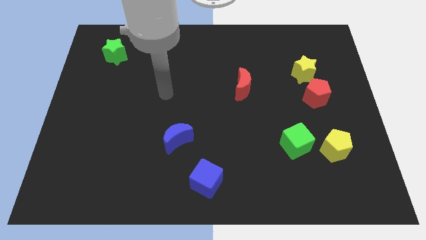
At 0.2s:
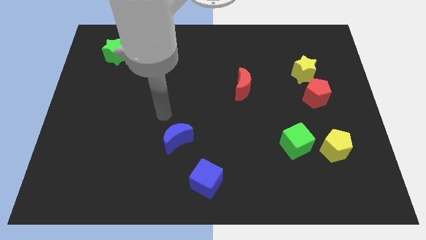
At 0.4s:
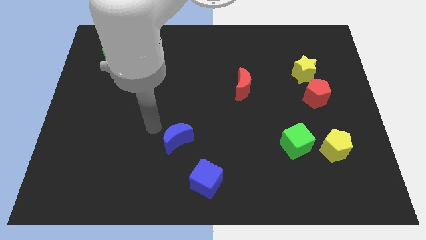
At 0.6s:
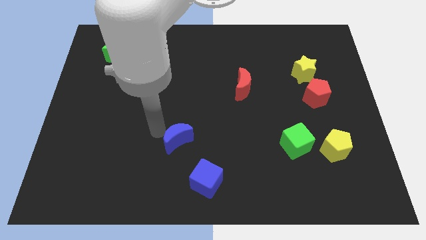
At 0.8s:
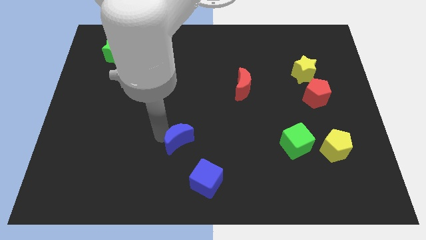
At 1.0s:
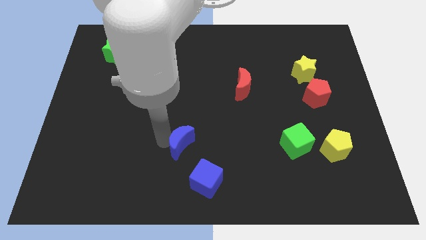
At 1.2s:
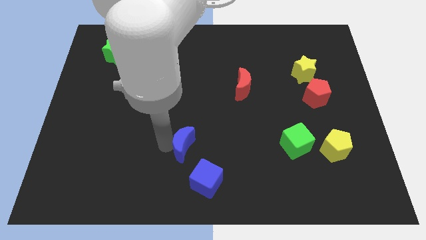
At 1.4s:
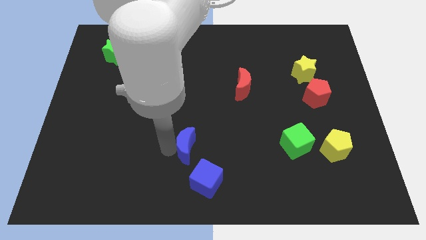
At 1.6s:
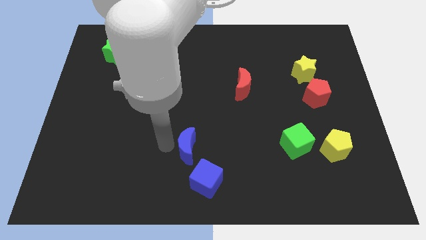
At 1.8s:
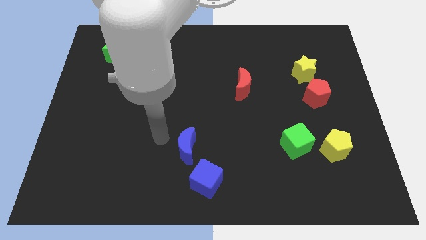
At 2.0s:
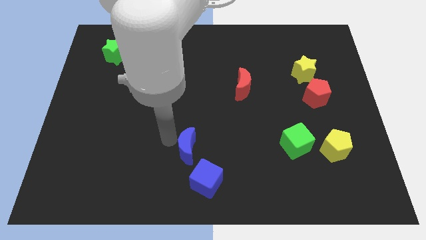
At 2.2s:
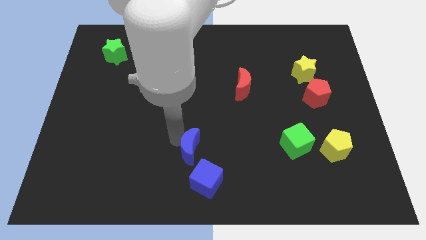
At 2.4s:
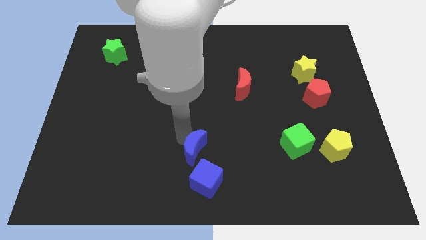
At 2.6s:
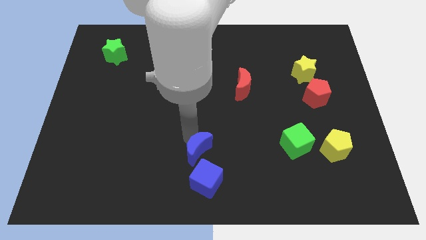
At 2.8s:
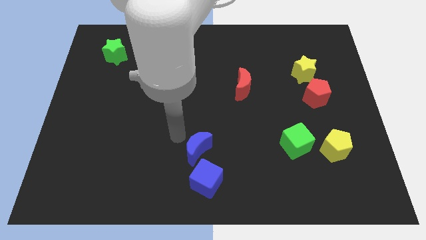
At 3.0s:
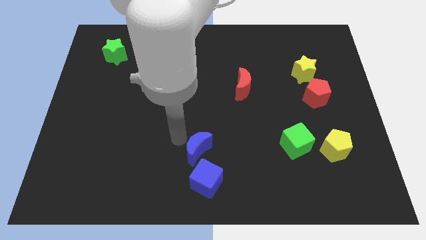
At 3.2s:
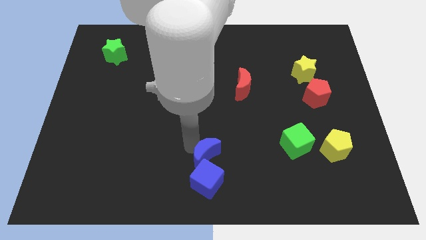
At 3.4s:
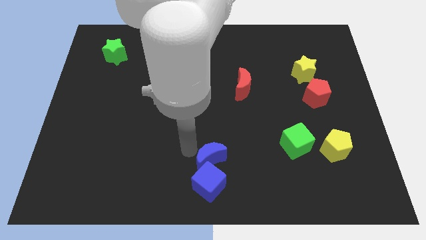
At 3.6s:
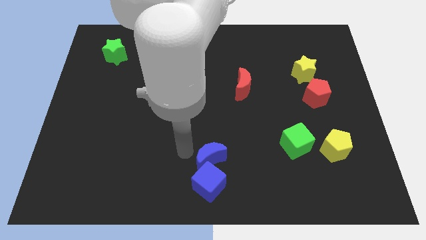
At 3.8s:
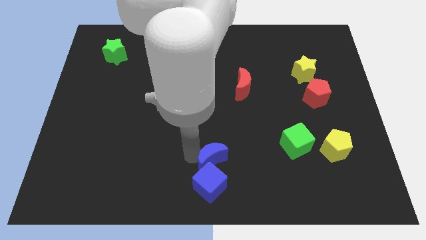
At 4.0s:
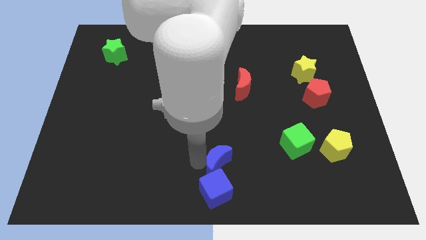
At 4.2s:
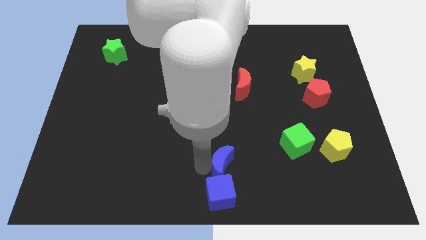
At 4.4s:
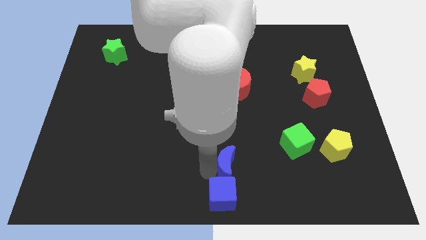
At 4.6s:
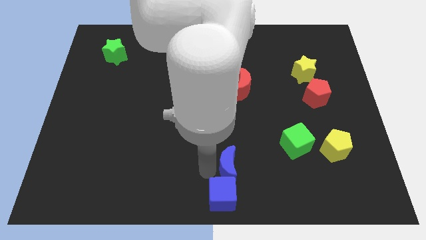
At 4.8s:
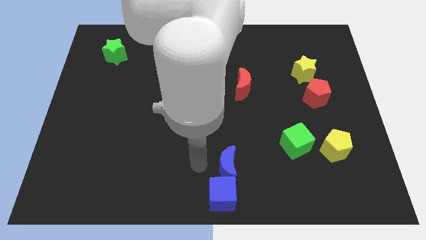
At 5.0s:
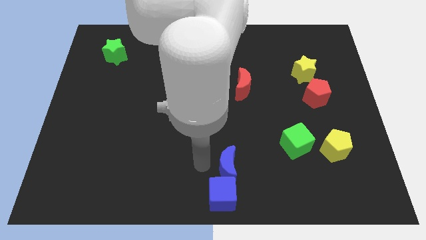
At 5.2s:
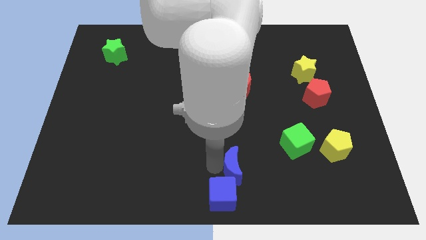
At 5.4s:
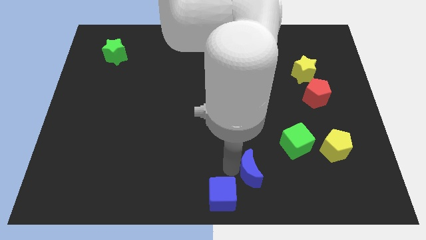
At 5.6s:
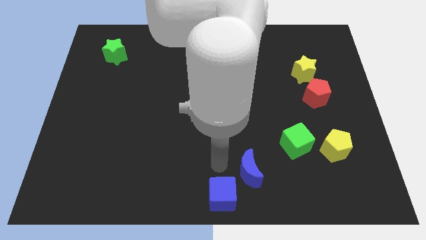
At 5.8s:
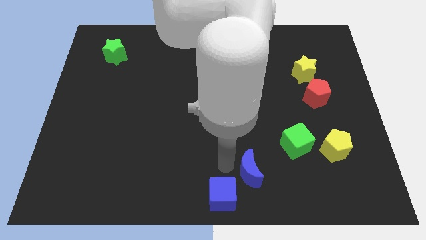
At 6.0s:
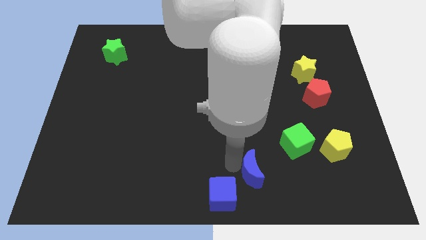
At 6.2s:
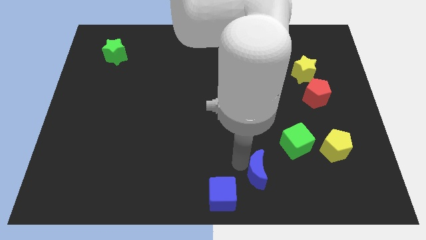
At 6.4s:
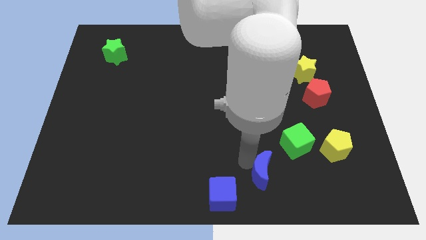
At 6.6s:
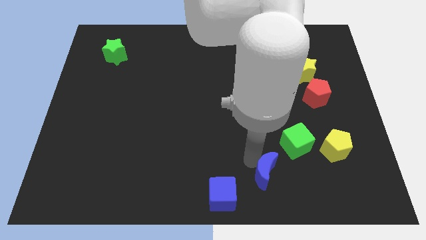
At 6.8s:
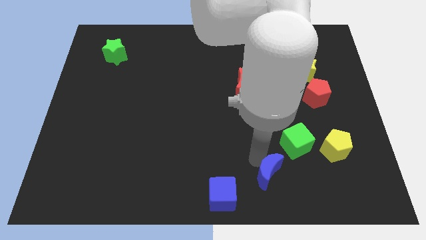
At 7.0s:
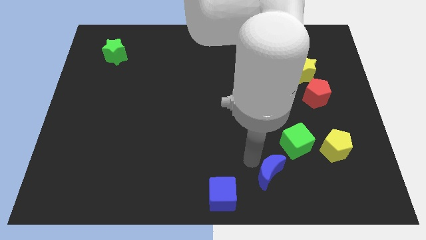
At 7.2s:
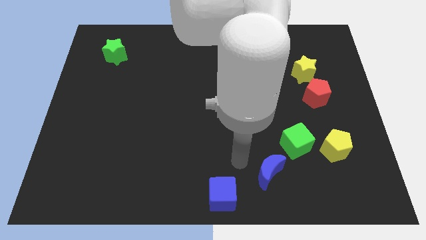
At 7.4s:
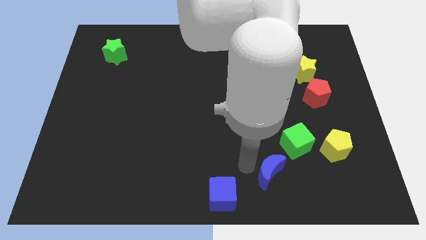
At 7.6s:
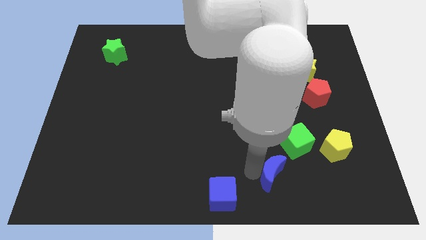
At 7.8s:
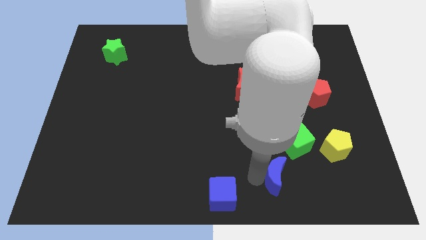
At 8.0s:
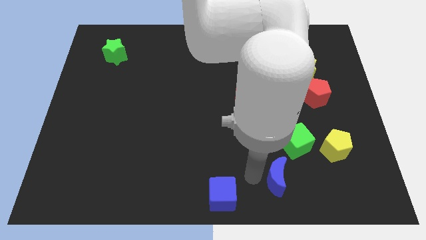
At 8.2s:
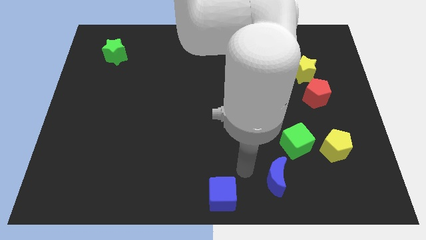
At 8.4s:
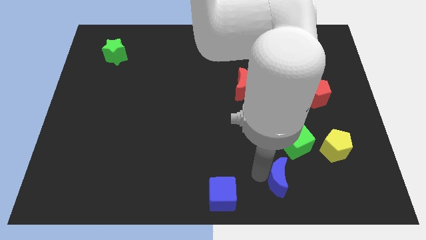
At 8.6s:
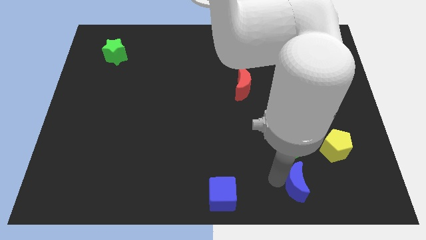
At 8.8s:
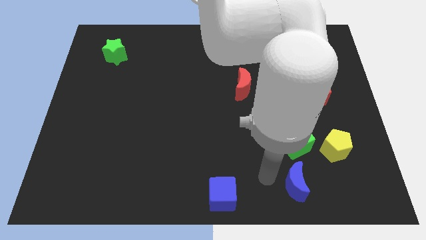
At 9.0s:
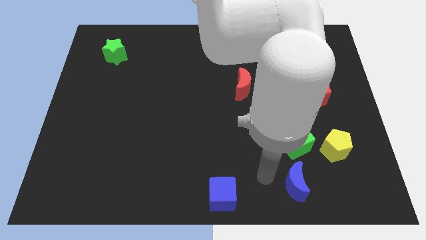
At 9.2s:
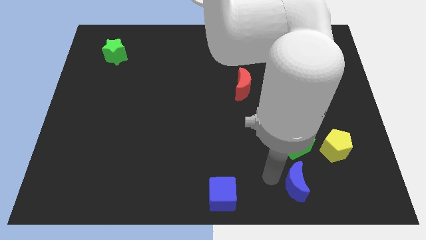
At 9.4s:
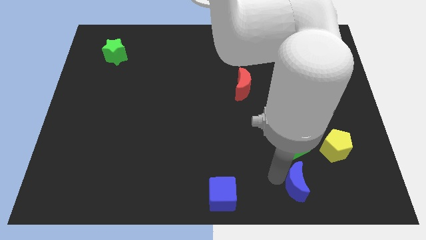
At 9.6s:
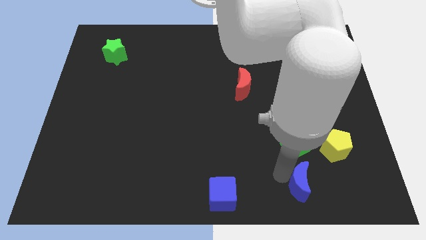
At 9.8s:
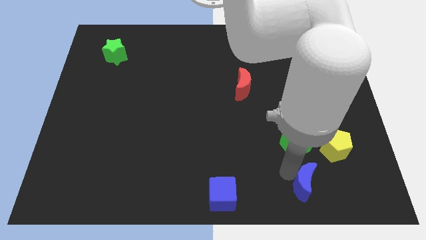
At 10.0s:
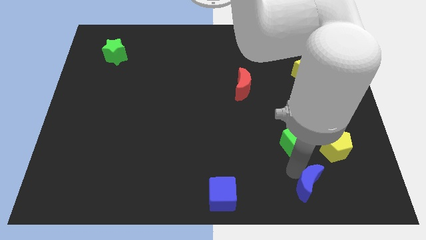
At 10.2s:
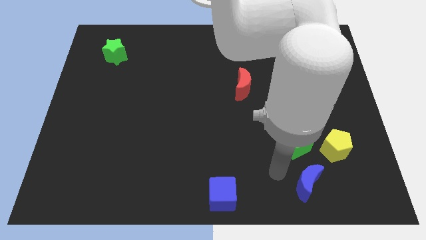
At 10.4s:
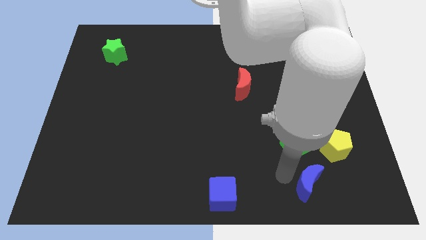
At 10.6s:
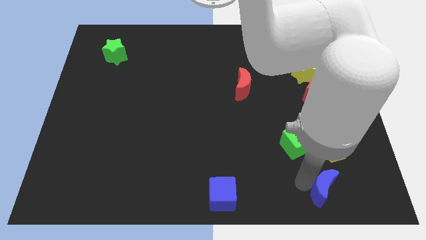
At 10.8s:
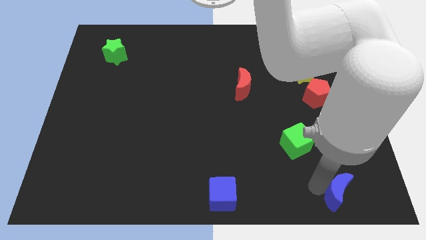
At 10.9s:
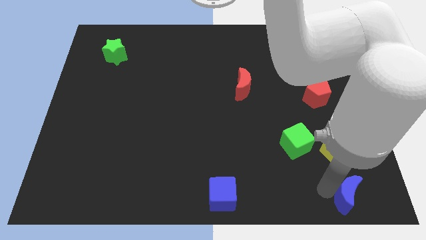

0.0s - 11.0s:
slide the blue moon to the lower right corner

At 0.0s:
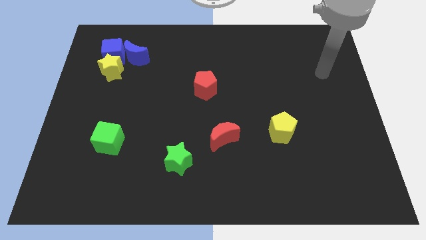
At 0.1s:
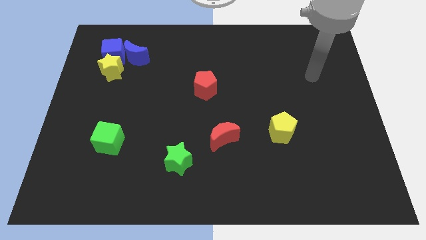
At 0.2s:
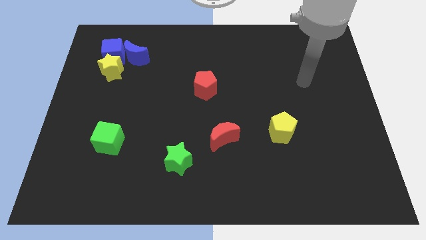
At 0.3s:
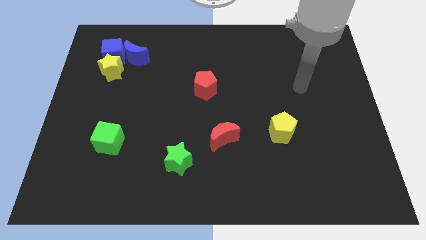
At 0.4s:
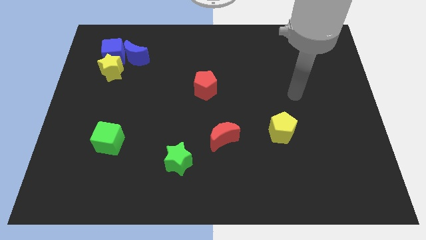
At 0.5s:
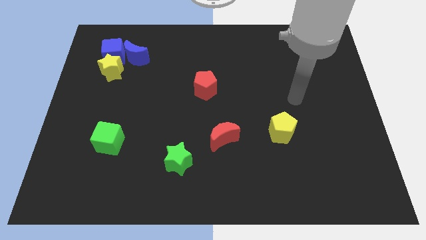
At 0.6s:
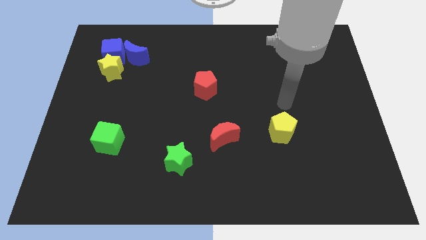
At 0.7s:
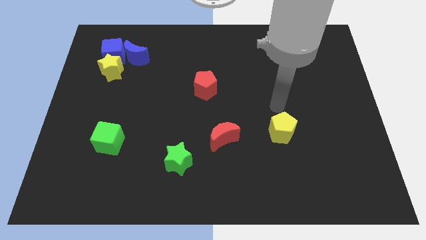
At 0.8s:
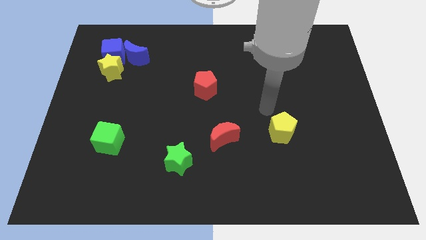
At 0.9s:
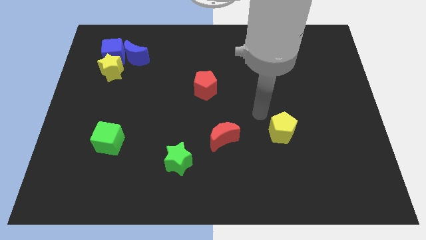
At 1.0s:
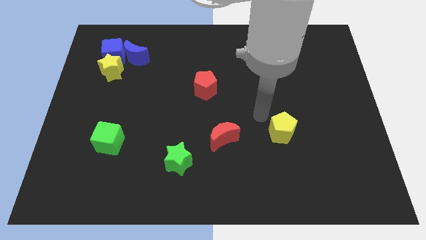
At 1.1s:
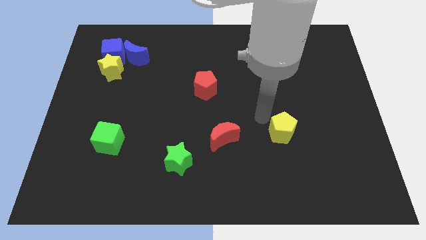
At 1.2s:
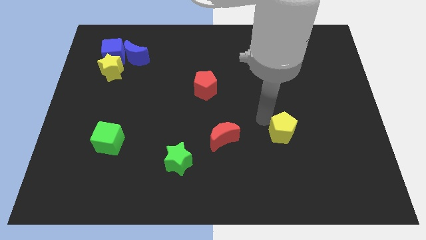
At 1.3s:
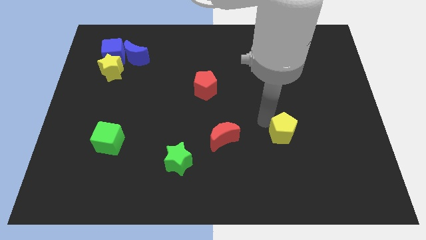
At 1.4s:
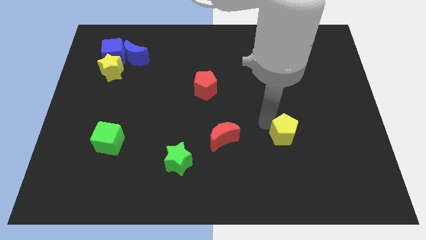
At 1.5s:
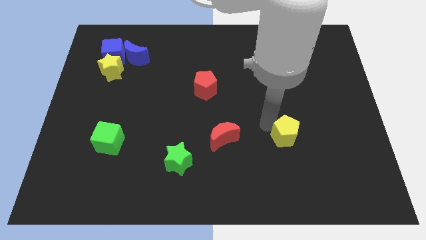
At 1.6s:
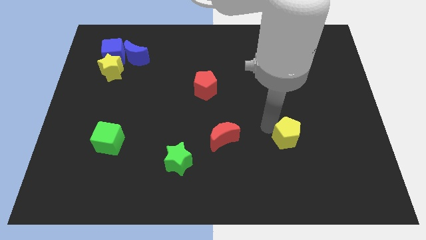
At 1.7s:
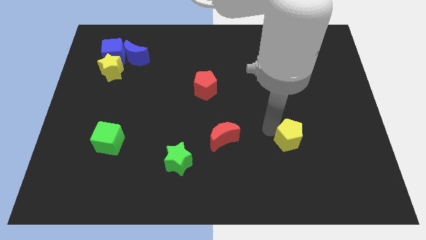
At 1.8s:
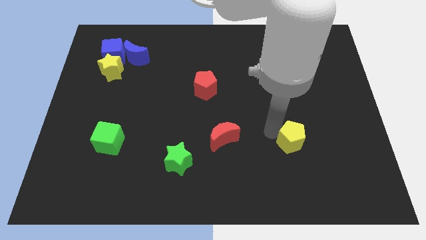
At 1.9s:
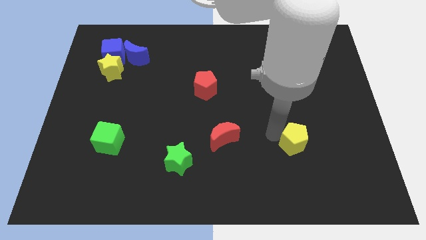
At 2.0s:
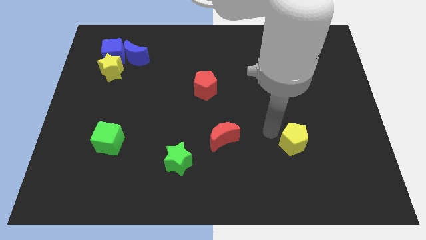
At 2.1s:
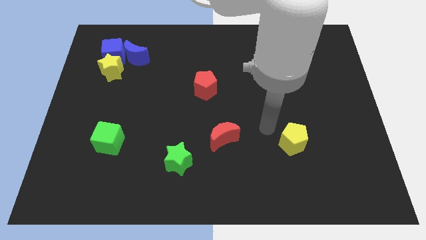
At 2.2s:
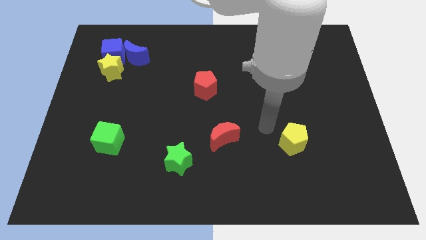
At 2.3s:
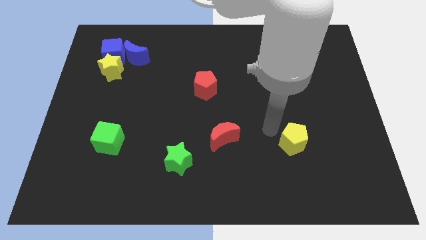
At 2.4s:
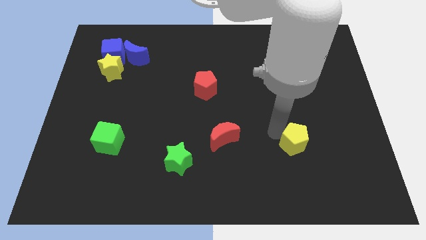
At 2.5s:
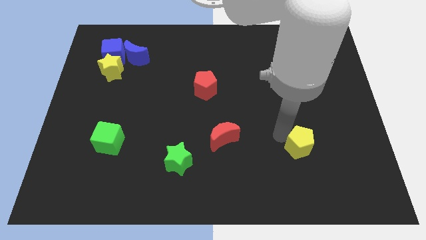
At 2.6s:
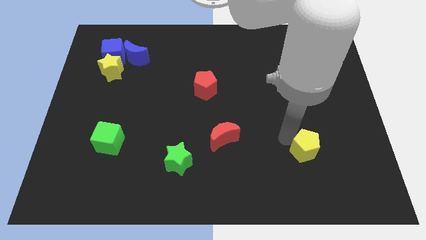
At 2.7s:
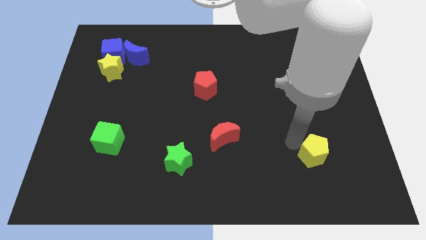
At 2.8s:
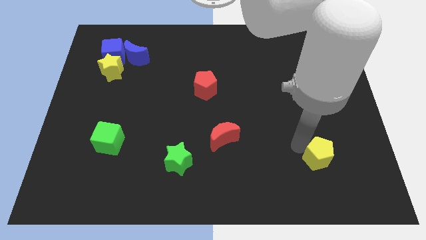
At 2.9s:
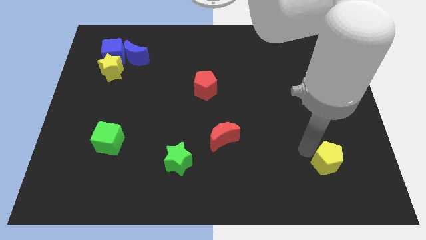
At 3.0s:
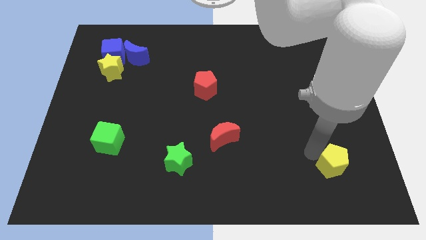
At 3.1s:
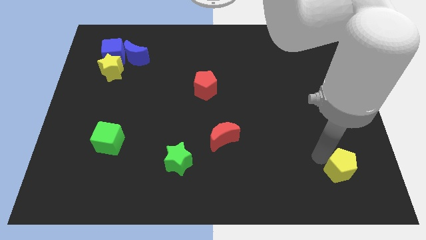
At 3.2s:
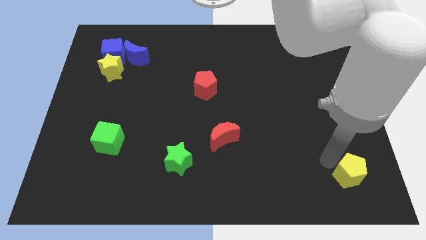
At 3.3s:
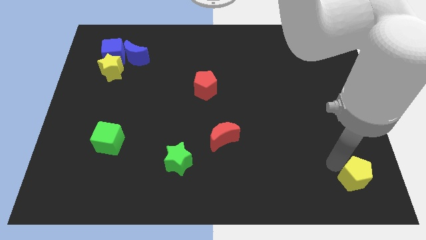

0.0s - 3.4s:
put the yellow pentagon to the bottom right corner
